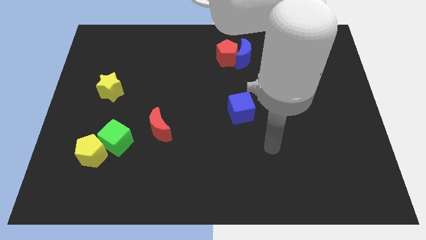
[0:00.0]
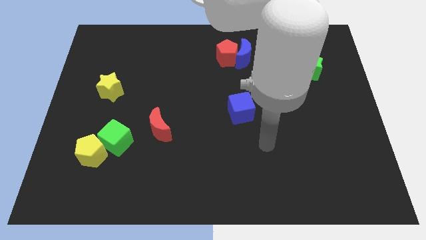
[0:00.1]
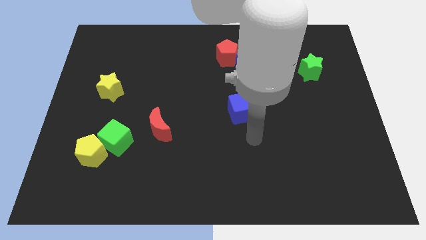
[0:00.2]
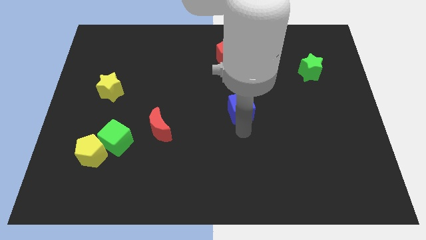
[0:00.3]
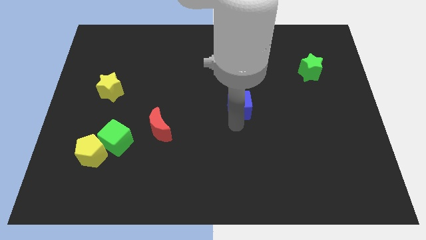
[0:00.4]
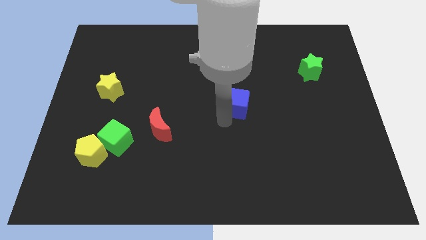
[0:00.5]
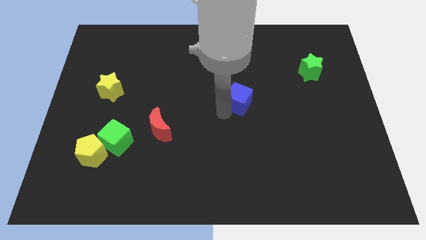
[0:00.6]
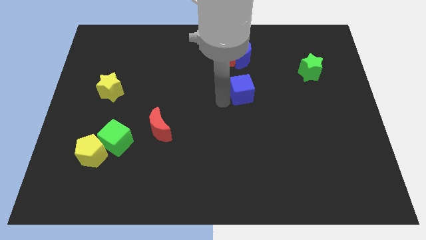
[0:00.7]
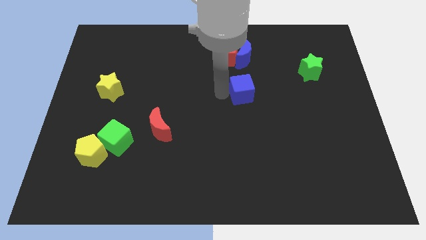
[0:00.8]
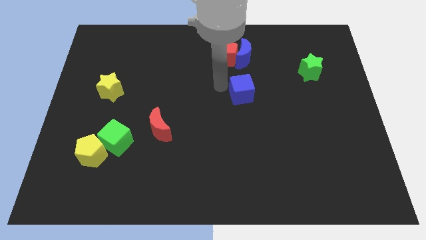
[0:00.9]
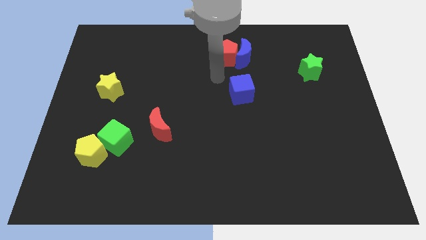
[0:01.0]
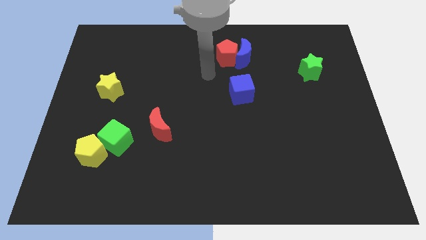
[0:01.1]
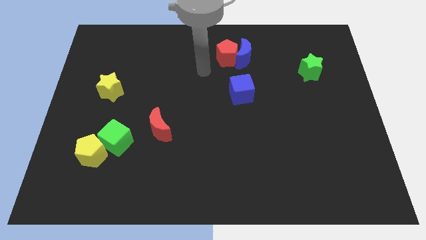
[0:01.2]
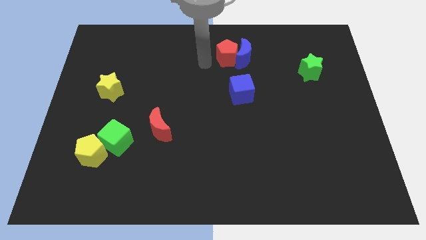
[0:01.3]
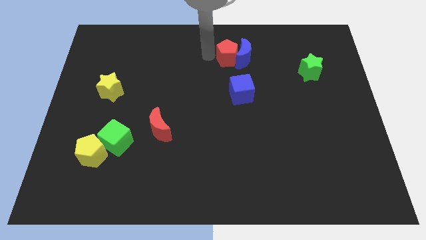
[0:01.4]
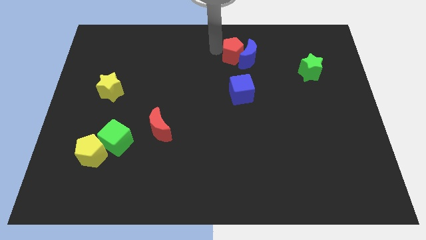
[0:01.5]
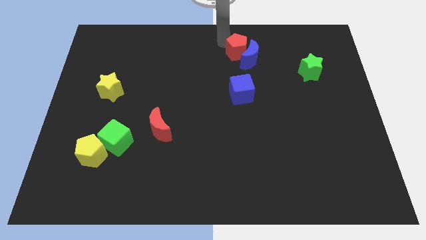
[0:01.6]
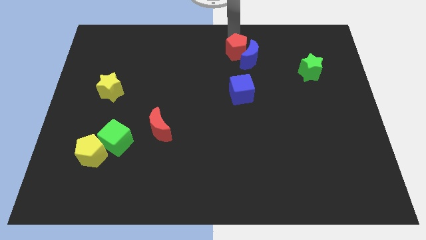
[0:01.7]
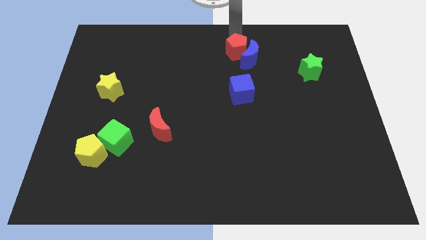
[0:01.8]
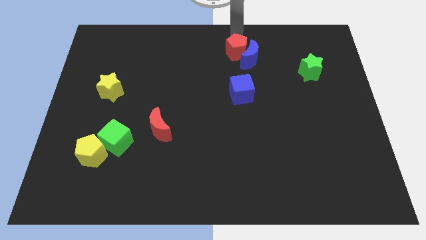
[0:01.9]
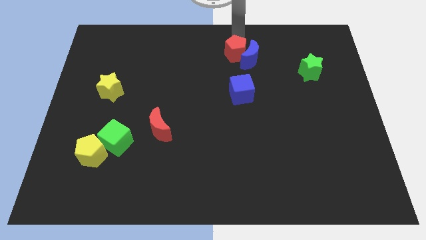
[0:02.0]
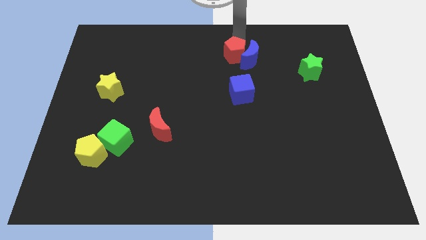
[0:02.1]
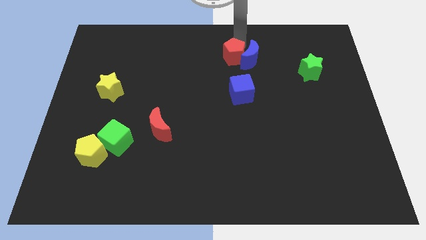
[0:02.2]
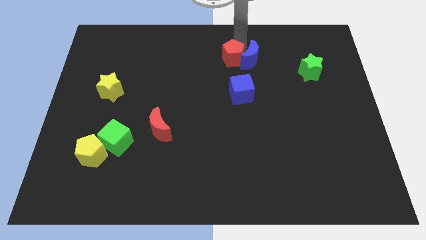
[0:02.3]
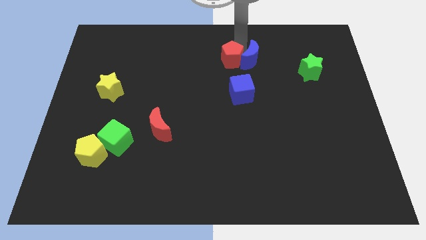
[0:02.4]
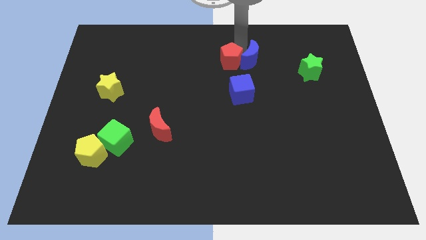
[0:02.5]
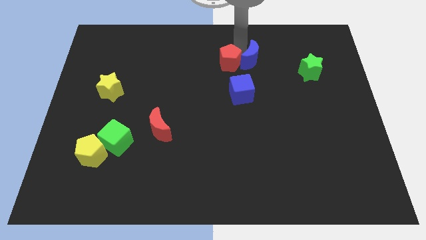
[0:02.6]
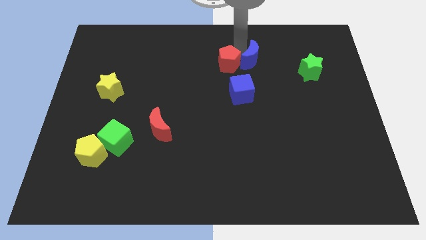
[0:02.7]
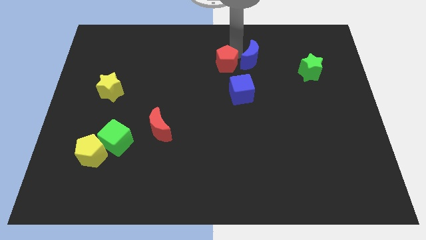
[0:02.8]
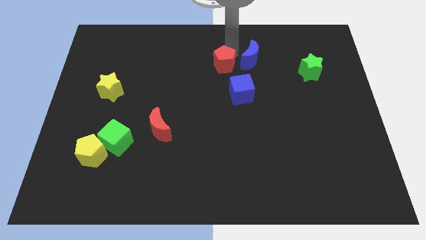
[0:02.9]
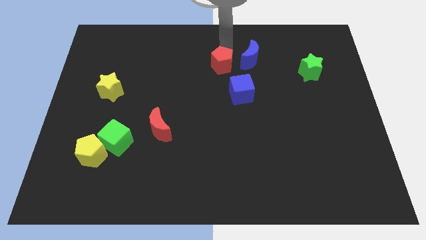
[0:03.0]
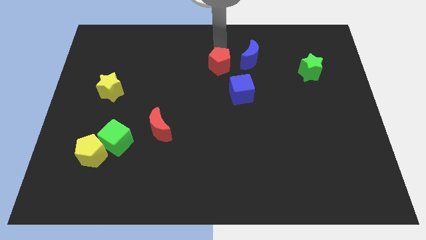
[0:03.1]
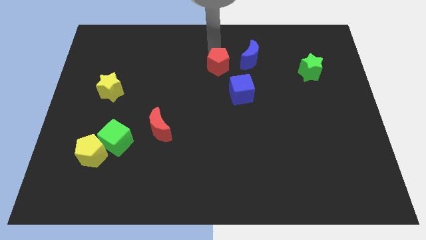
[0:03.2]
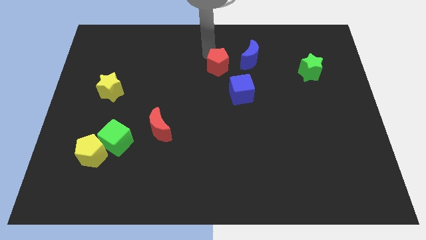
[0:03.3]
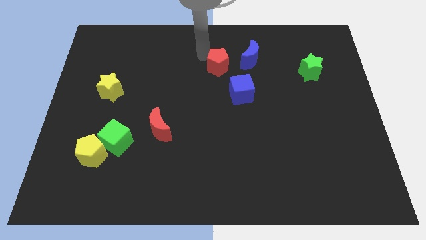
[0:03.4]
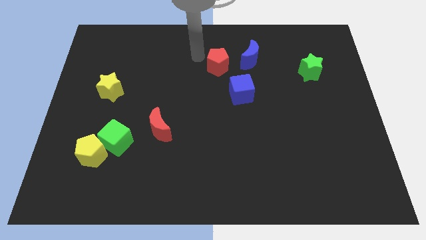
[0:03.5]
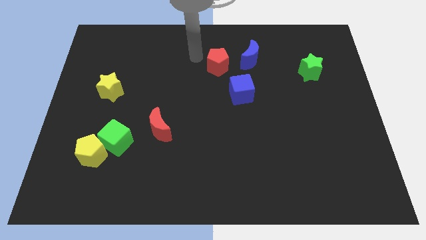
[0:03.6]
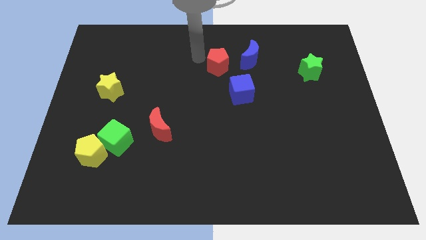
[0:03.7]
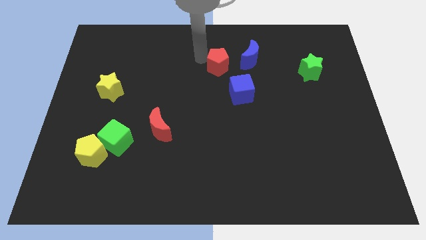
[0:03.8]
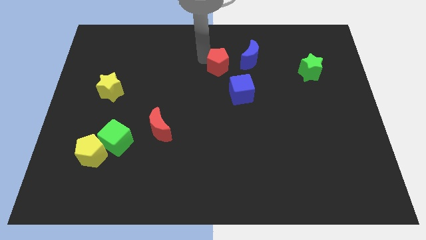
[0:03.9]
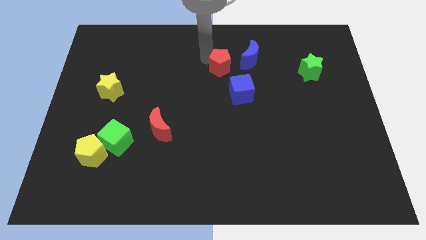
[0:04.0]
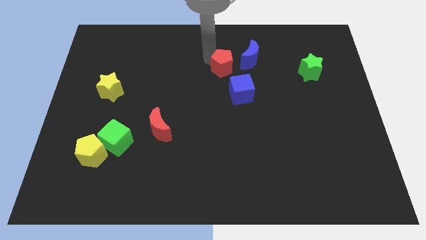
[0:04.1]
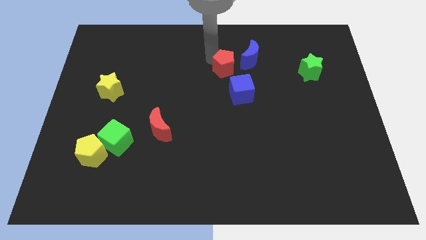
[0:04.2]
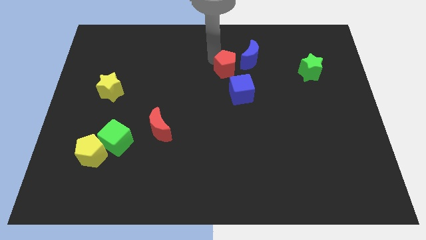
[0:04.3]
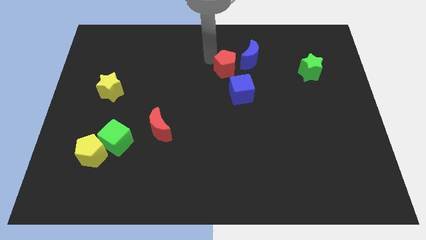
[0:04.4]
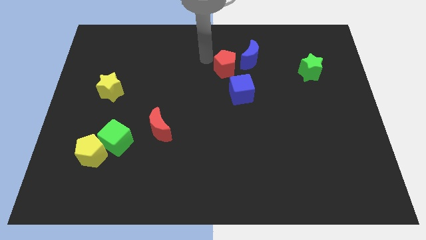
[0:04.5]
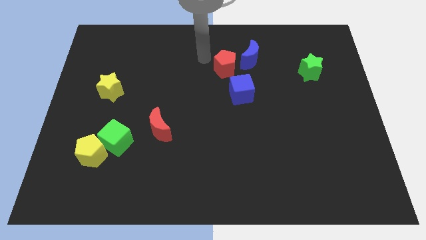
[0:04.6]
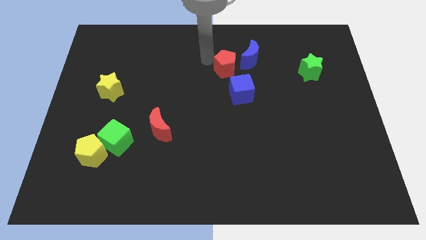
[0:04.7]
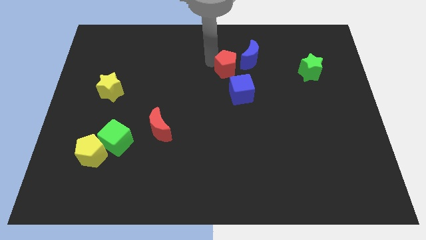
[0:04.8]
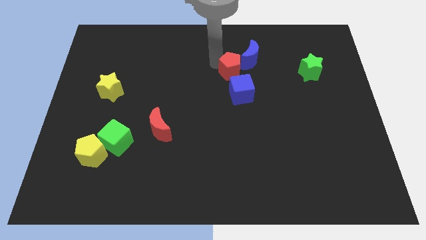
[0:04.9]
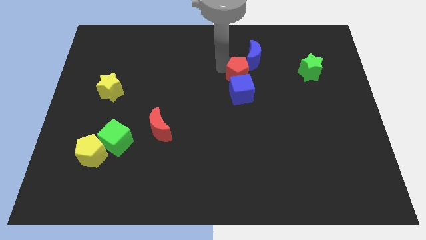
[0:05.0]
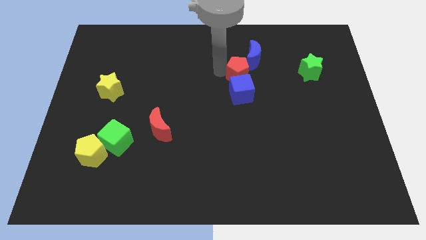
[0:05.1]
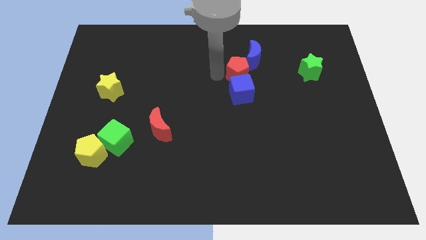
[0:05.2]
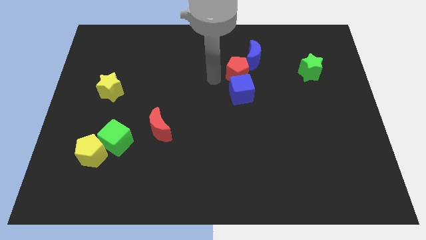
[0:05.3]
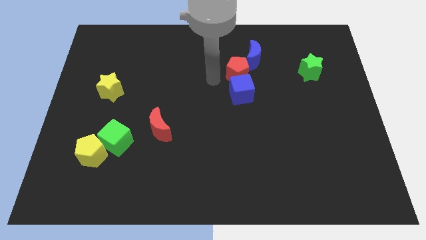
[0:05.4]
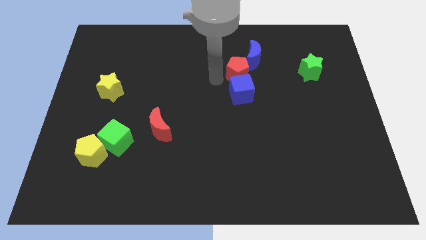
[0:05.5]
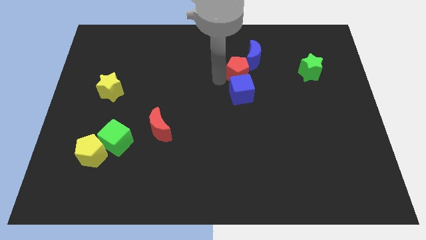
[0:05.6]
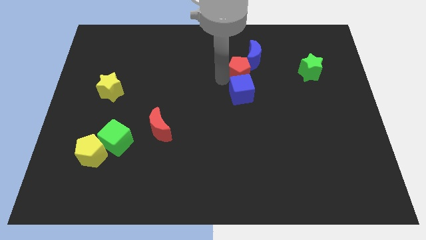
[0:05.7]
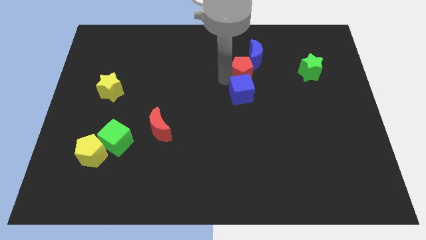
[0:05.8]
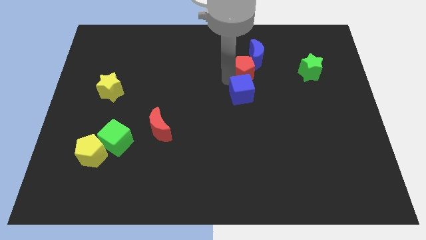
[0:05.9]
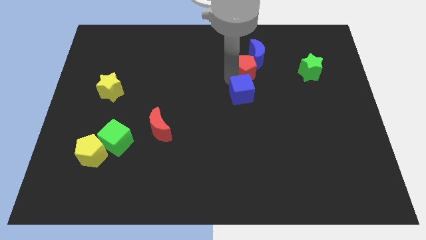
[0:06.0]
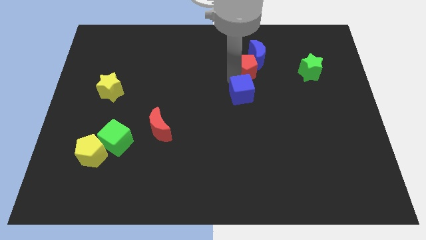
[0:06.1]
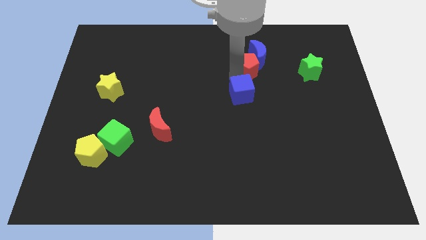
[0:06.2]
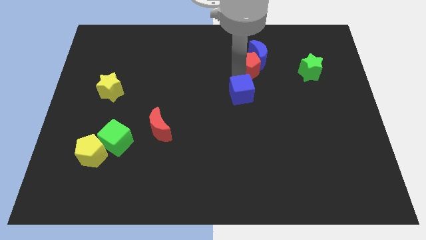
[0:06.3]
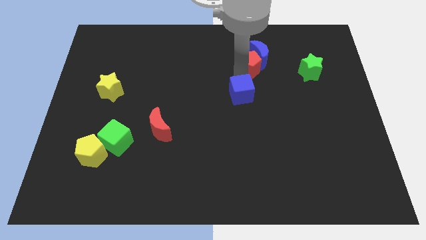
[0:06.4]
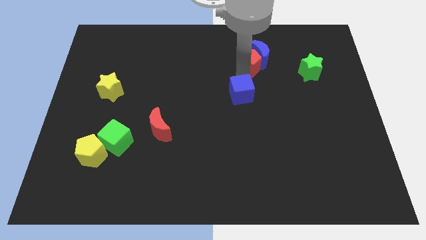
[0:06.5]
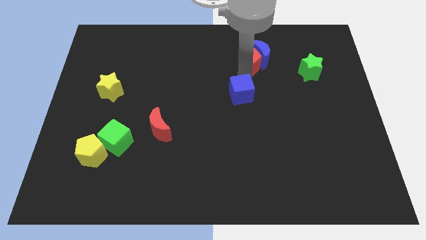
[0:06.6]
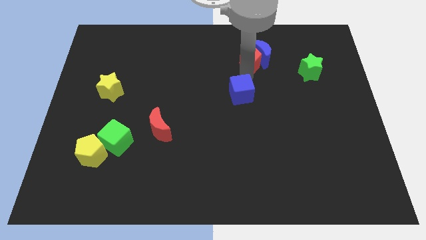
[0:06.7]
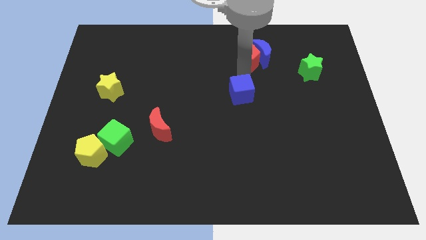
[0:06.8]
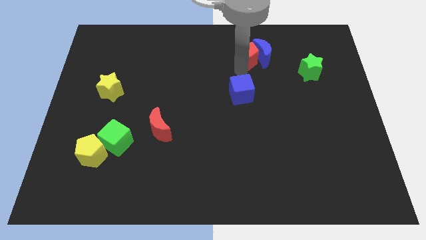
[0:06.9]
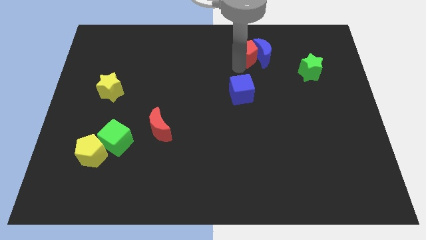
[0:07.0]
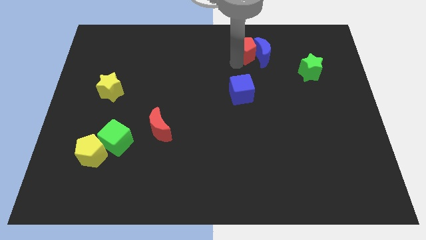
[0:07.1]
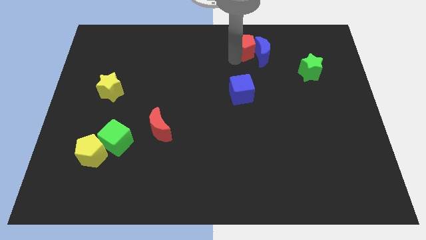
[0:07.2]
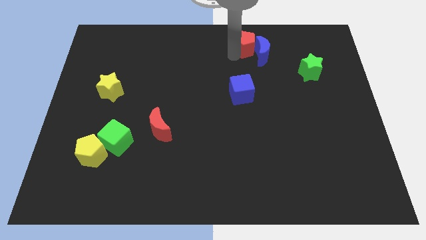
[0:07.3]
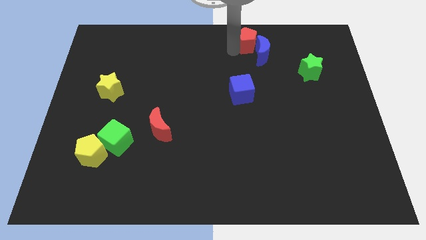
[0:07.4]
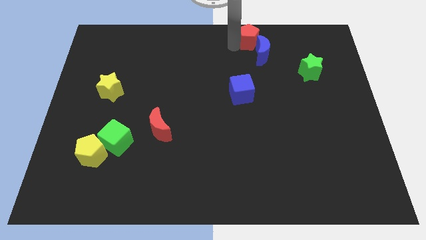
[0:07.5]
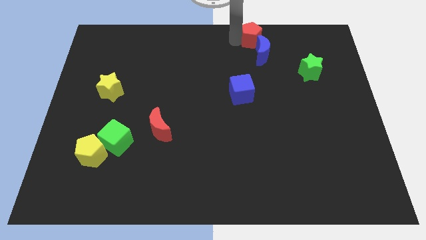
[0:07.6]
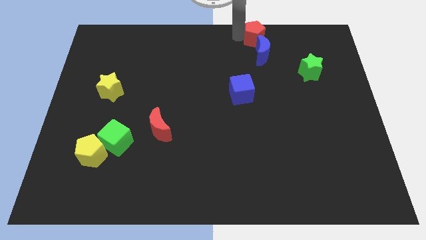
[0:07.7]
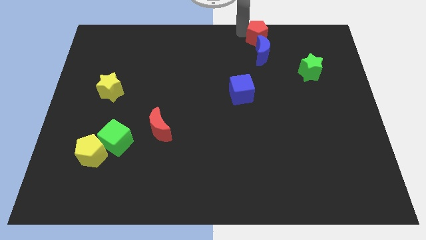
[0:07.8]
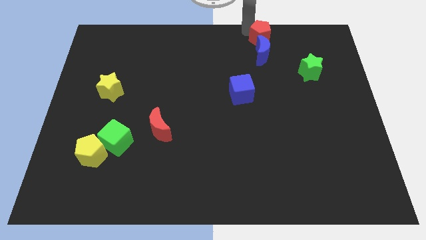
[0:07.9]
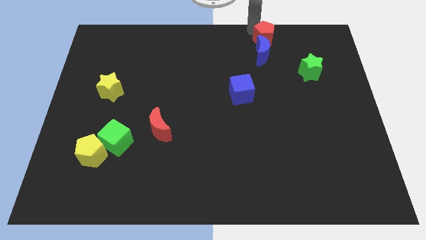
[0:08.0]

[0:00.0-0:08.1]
push the red pentagon to the right a little

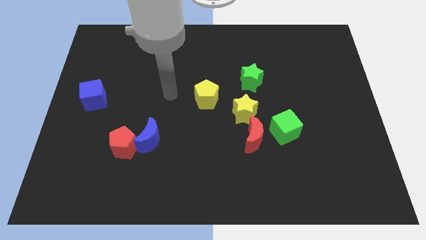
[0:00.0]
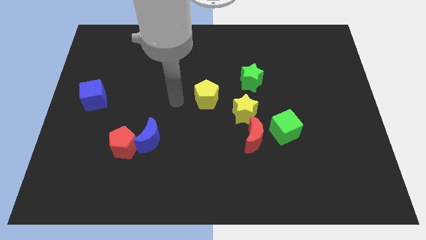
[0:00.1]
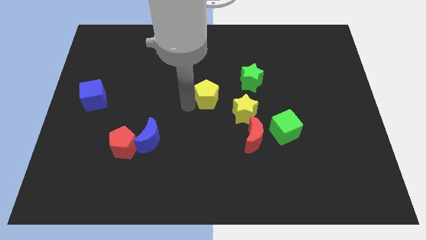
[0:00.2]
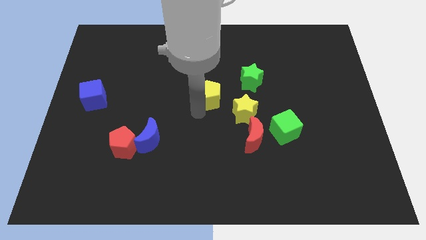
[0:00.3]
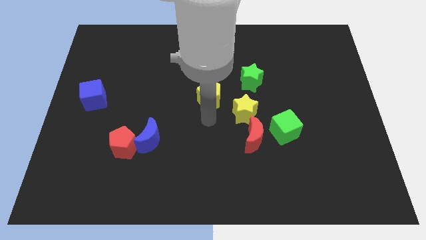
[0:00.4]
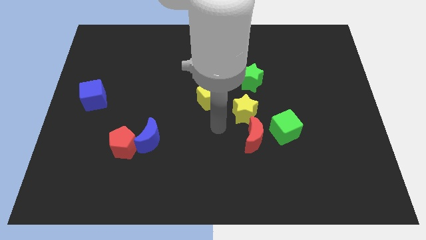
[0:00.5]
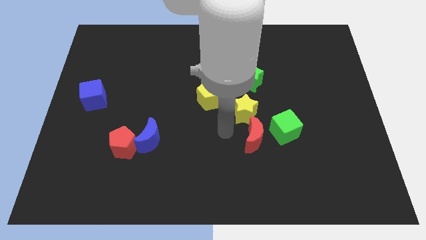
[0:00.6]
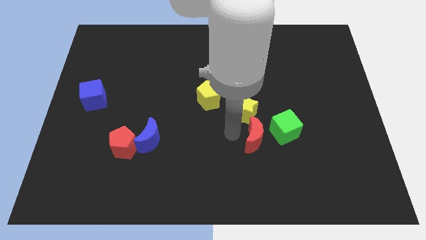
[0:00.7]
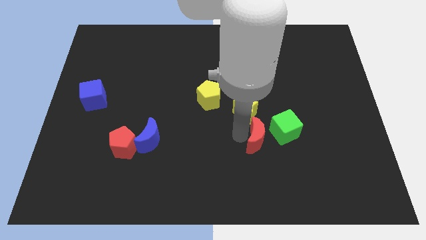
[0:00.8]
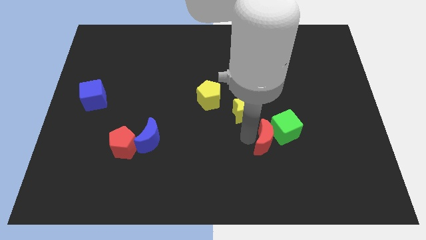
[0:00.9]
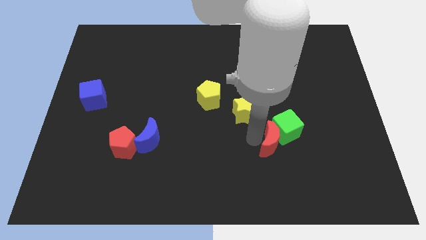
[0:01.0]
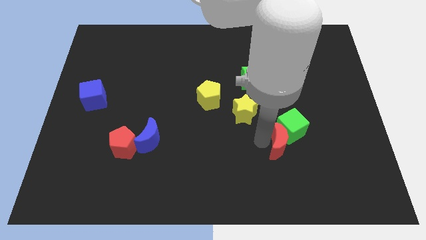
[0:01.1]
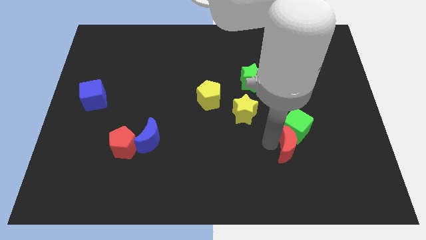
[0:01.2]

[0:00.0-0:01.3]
slightly slide the red moon right
